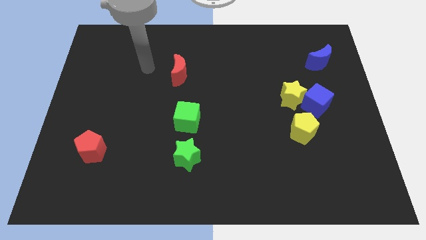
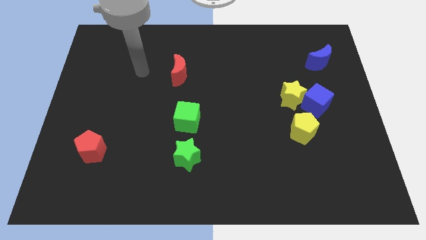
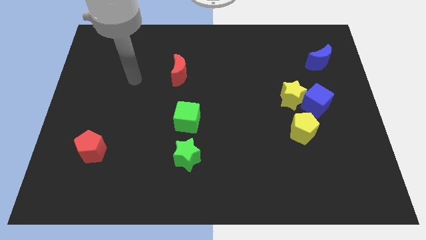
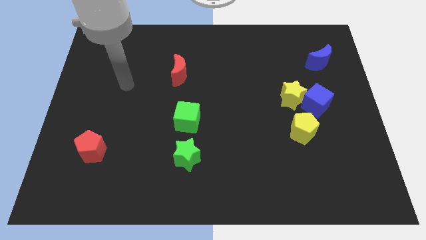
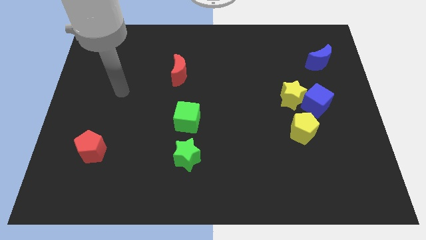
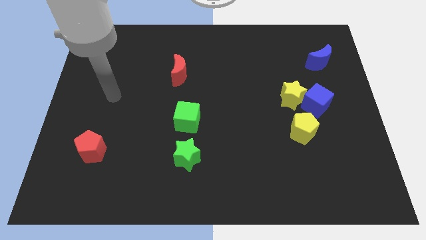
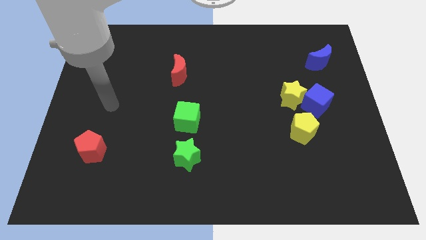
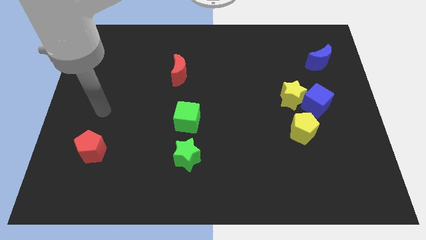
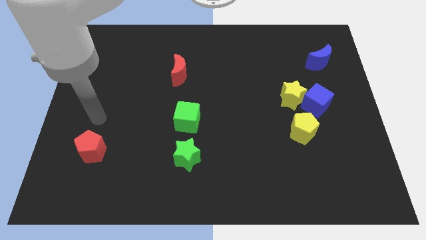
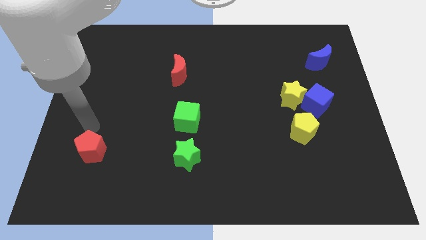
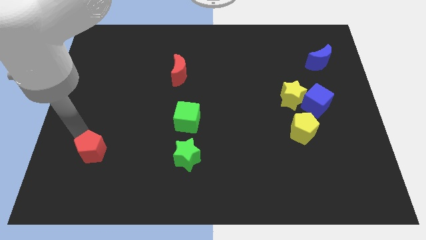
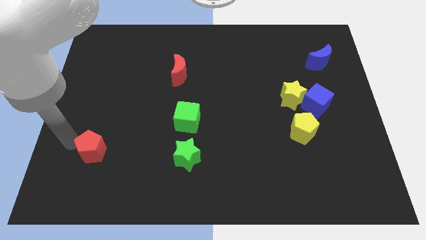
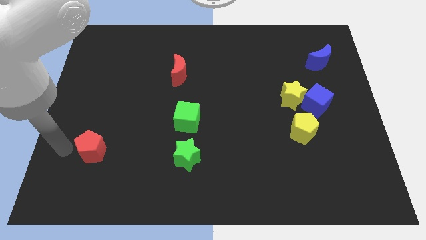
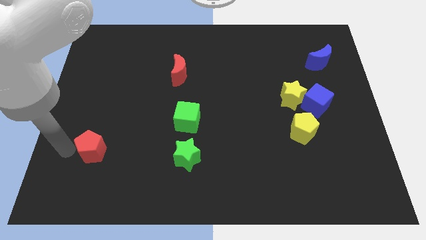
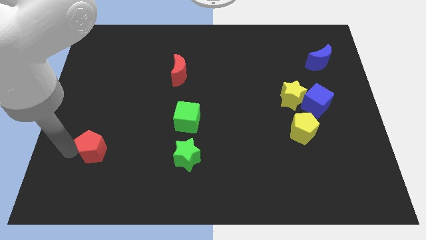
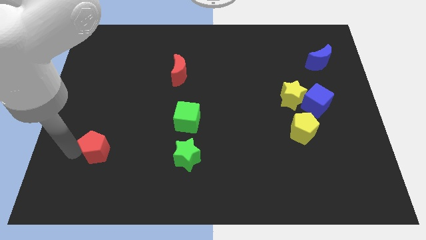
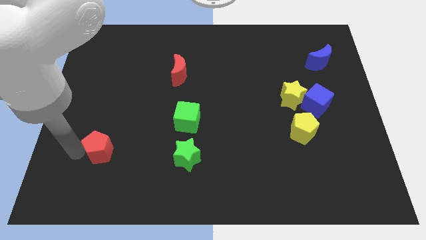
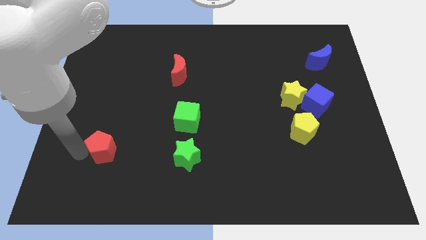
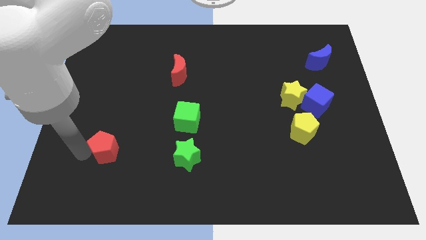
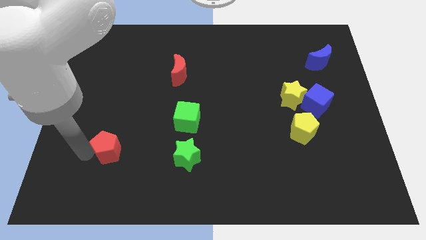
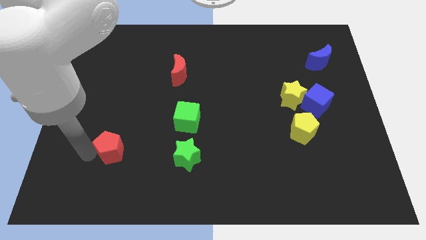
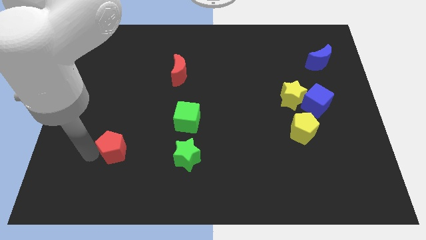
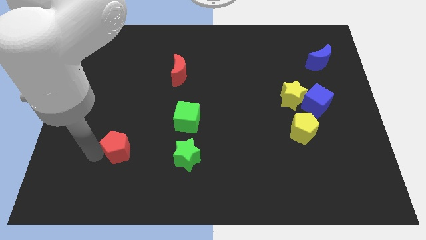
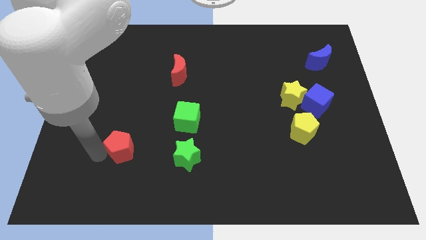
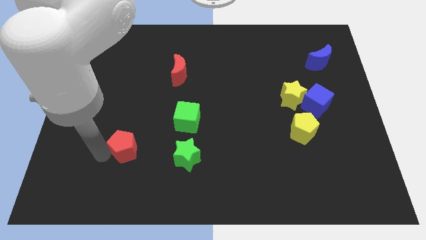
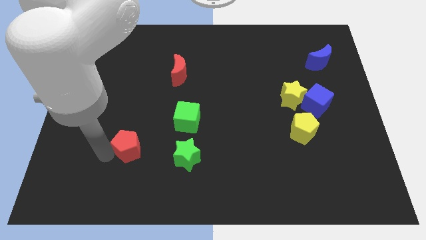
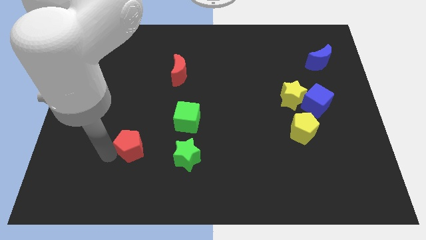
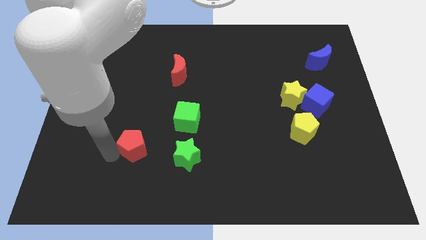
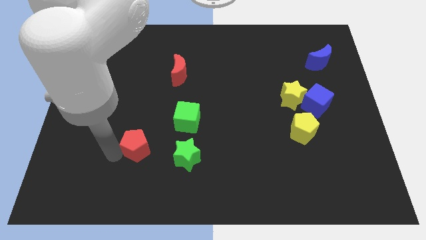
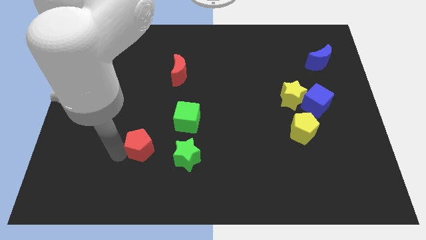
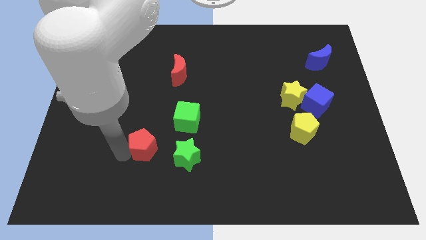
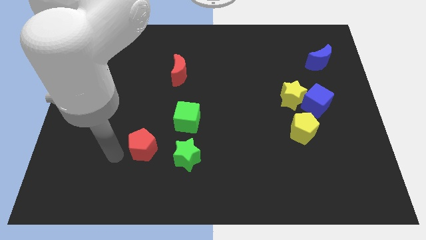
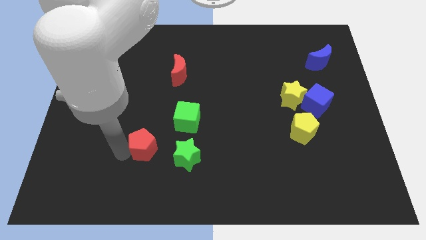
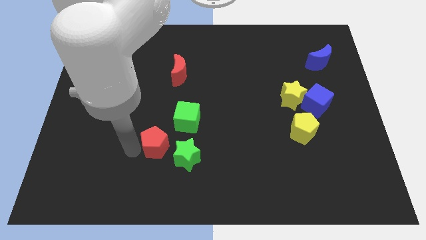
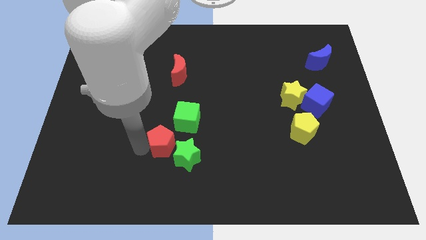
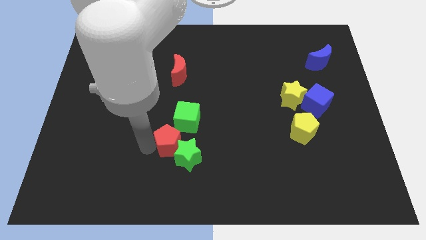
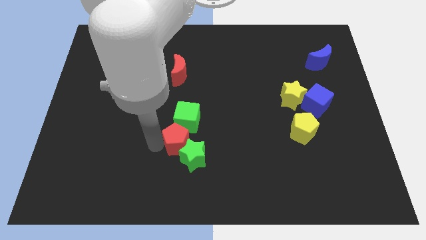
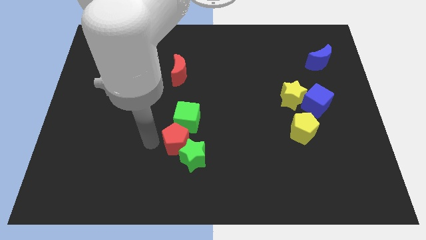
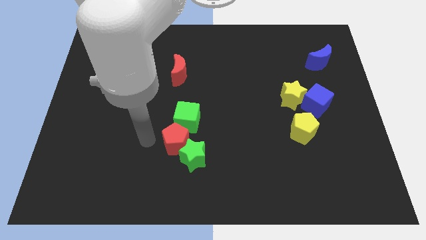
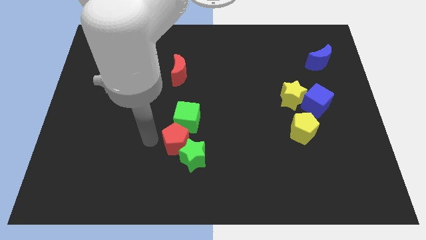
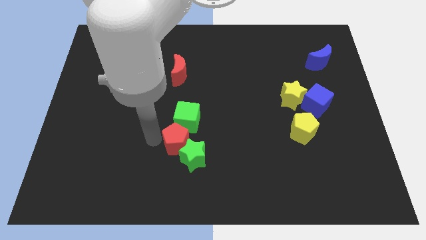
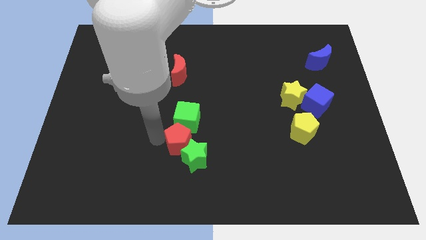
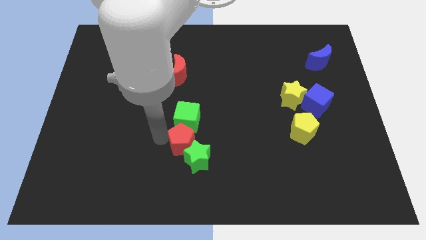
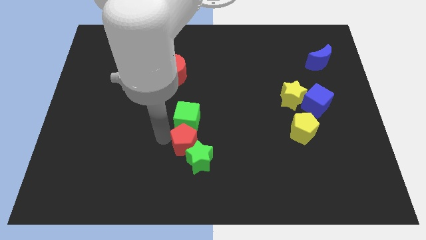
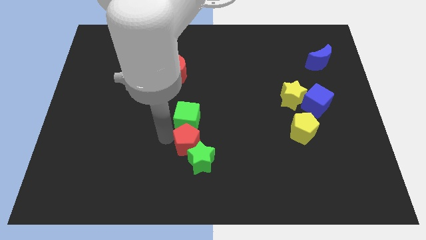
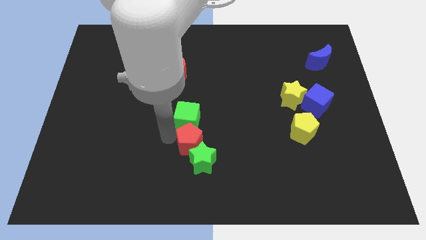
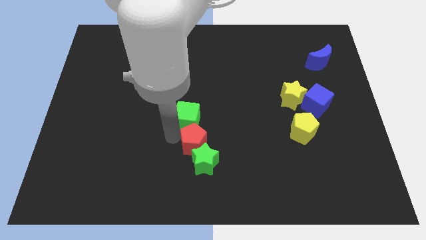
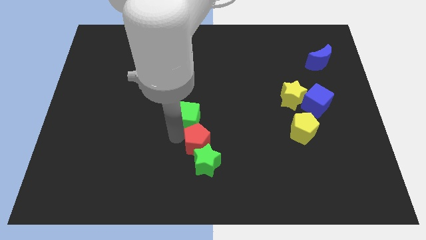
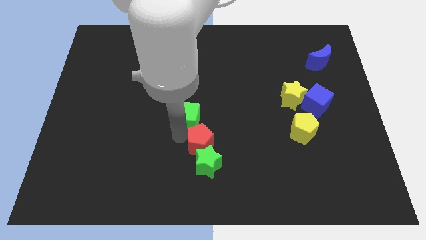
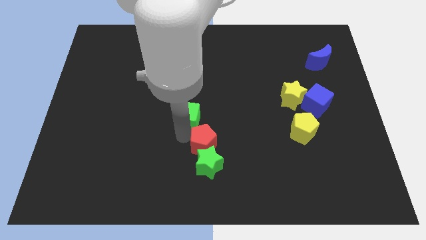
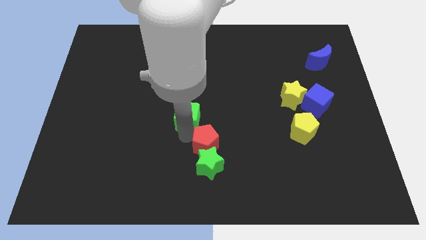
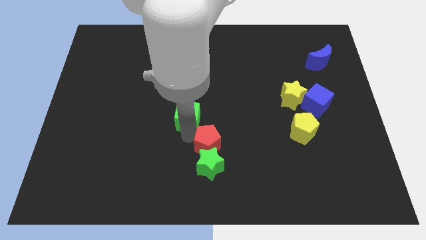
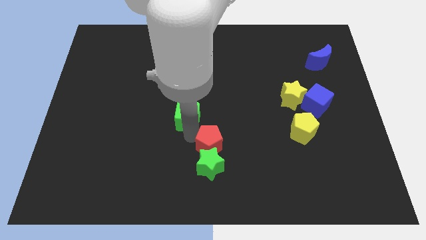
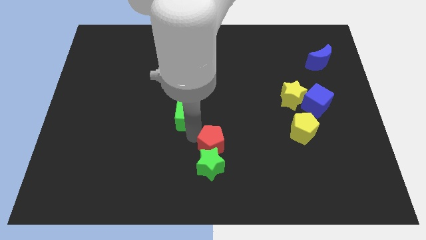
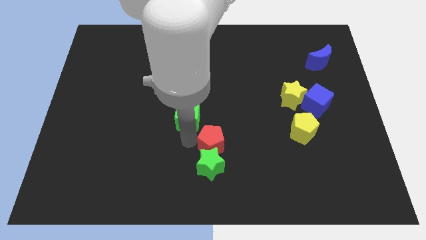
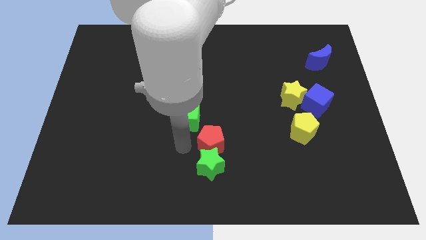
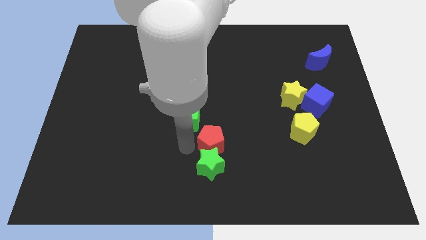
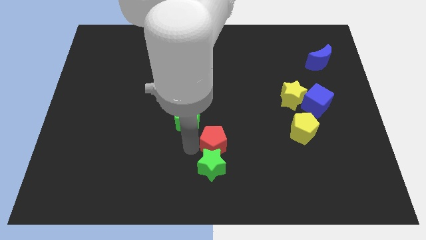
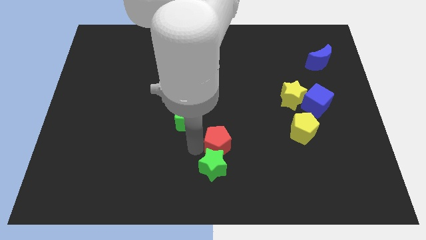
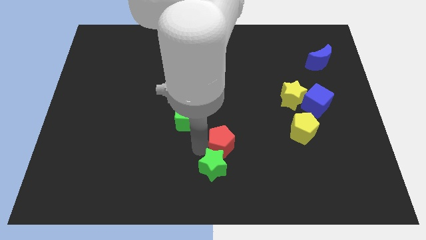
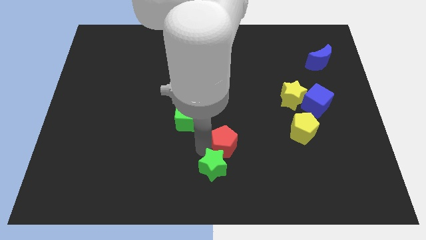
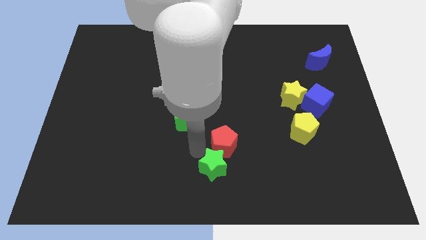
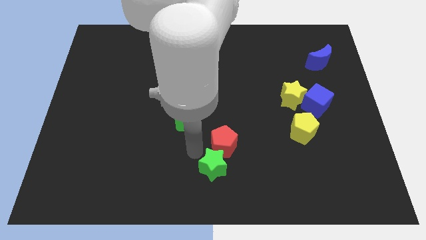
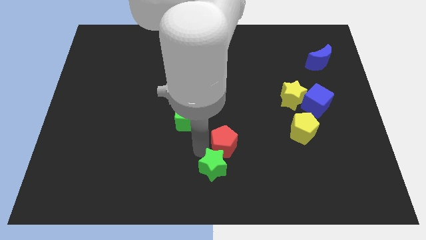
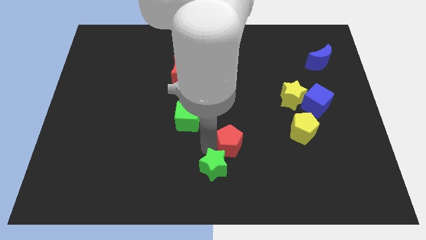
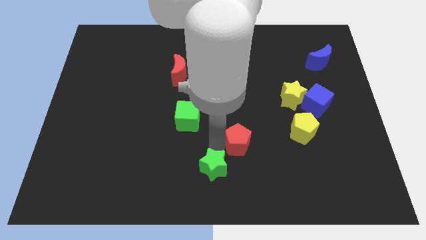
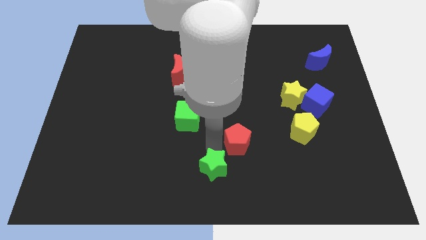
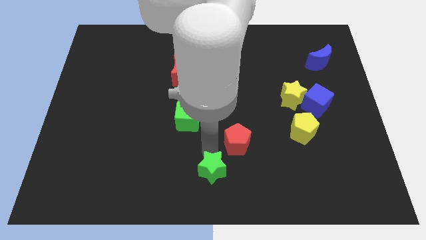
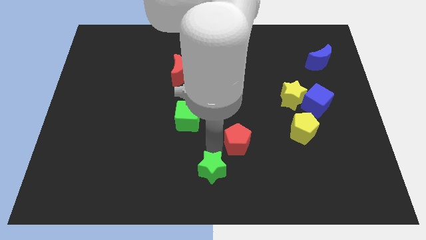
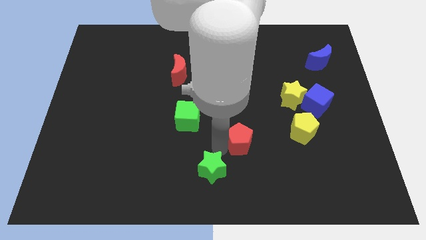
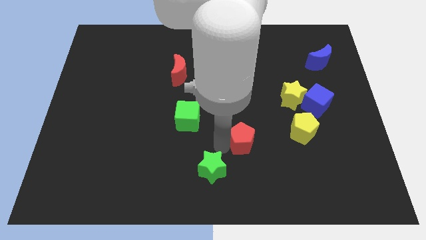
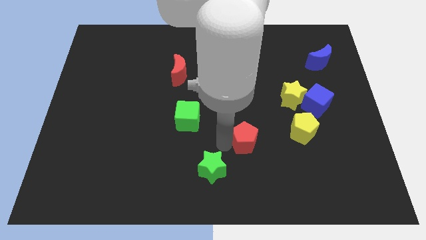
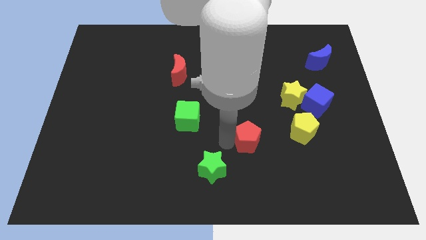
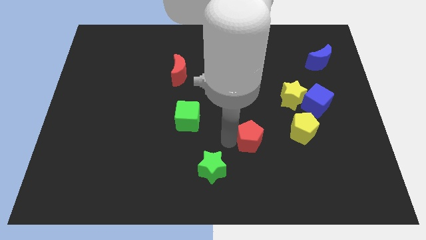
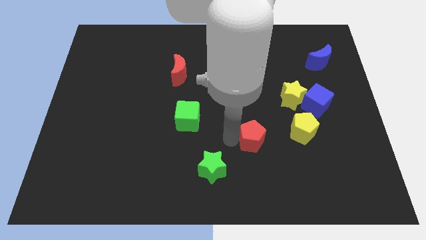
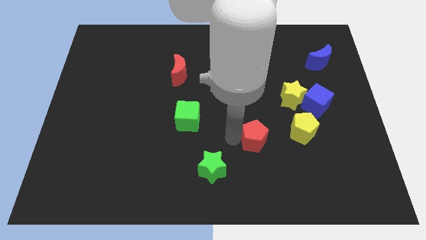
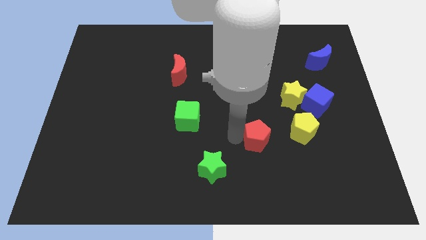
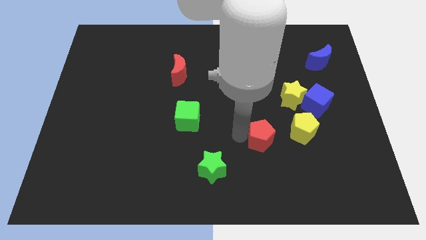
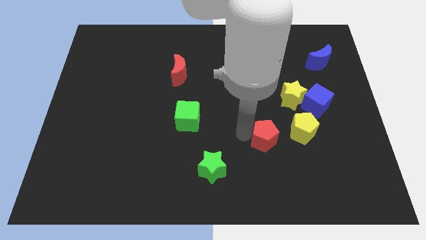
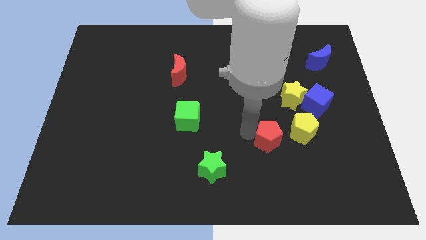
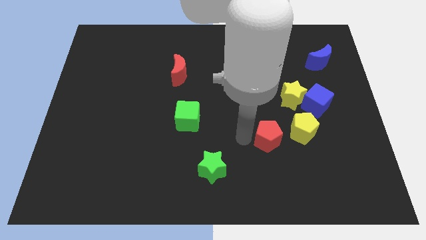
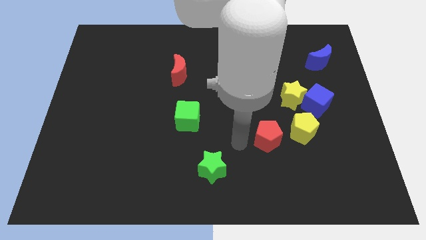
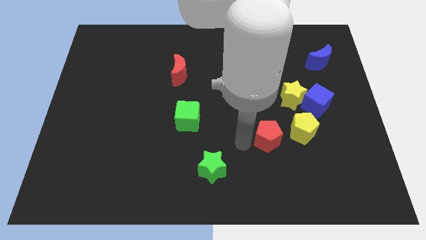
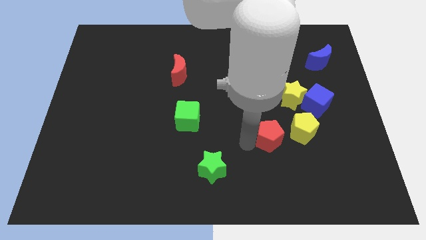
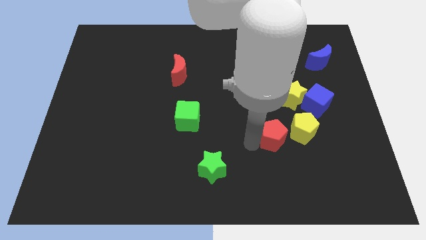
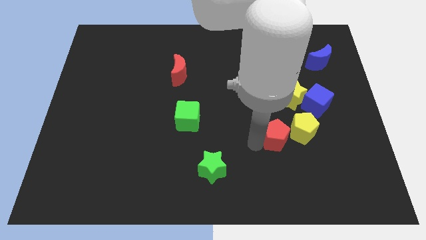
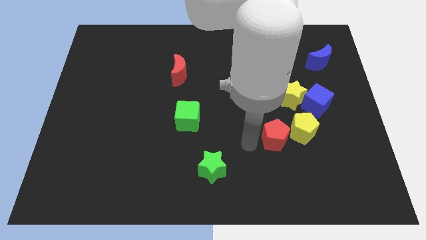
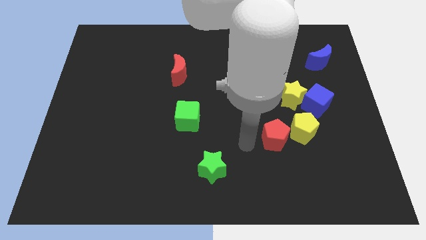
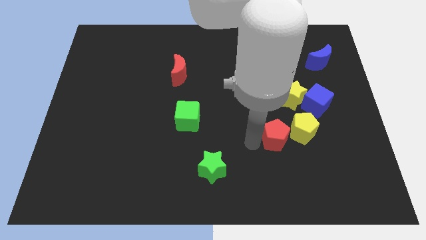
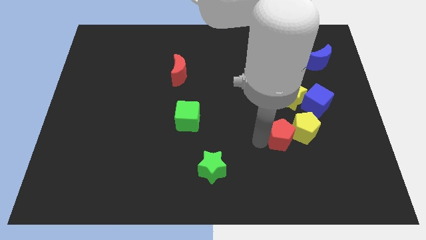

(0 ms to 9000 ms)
put the red pentagon to the yellow pentagon
